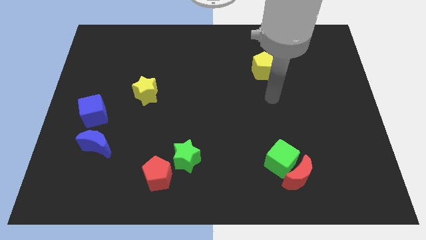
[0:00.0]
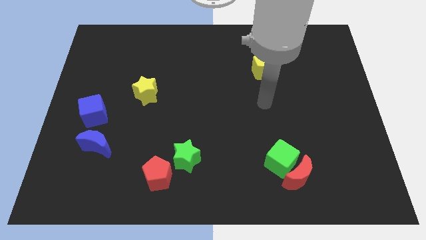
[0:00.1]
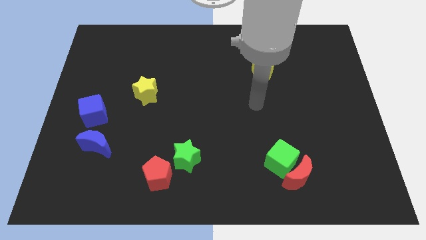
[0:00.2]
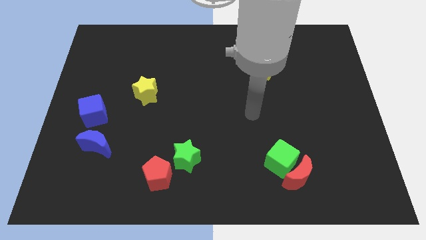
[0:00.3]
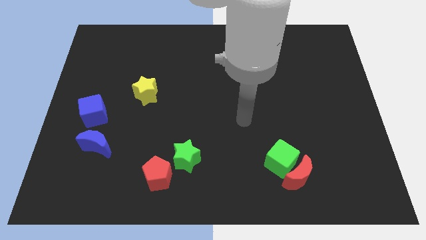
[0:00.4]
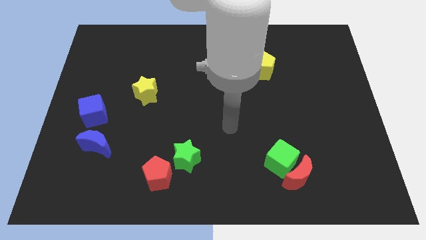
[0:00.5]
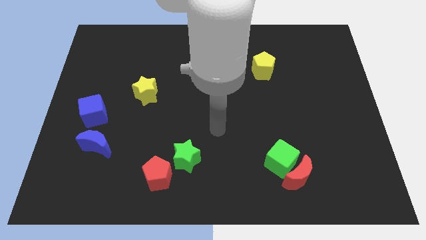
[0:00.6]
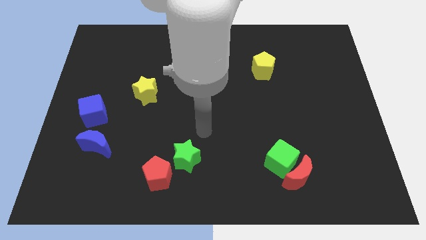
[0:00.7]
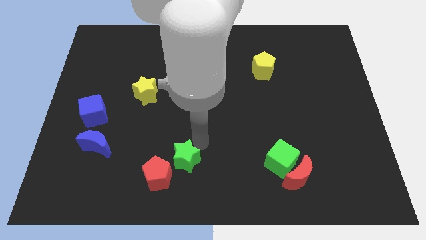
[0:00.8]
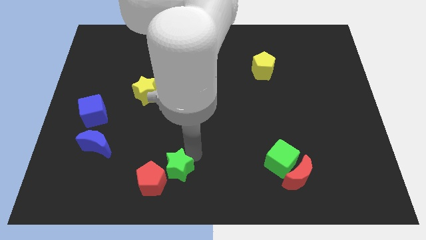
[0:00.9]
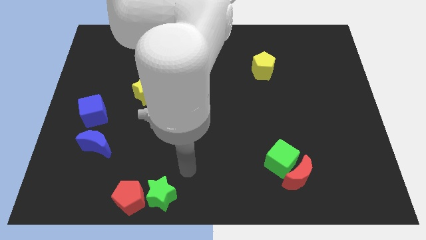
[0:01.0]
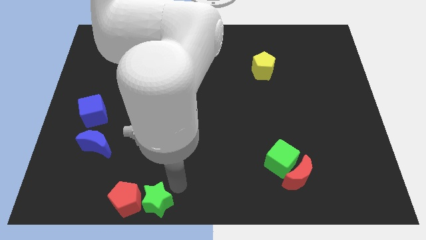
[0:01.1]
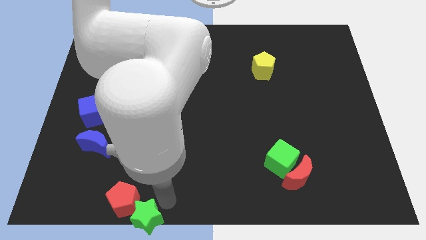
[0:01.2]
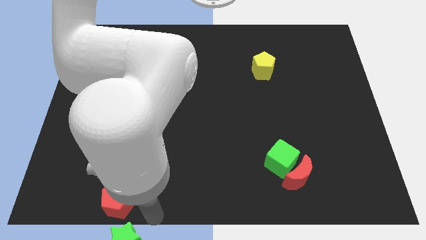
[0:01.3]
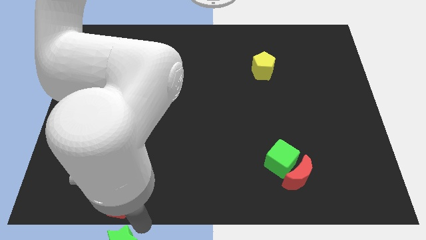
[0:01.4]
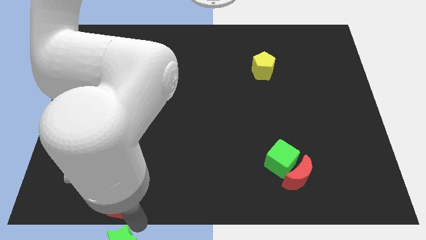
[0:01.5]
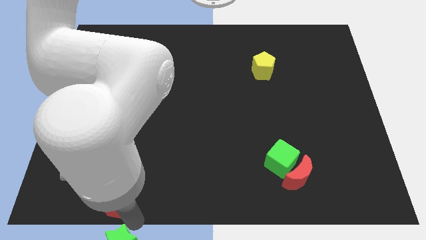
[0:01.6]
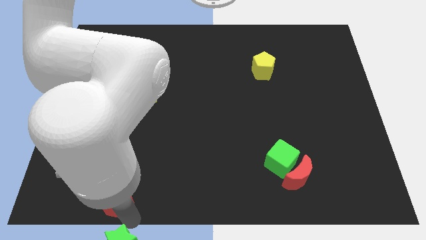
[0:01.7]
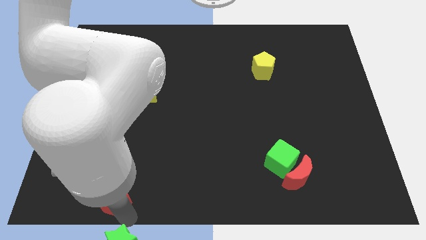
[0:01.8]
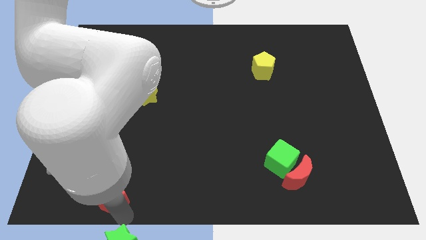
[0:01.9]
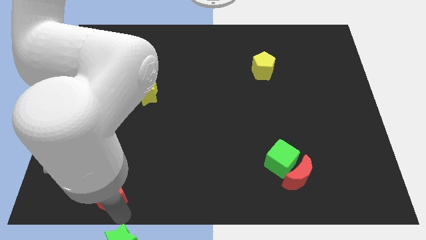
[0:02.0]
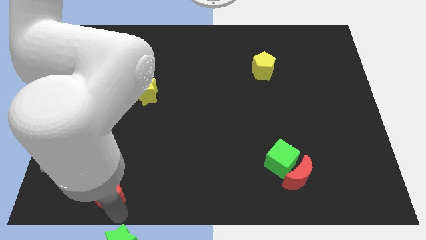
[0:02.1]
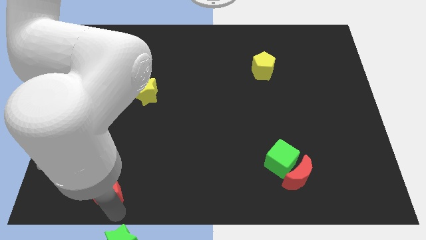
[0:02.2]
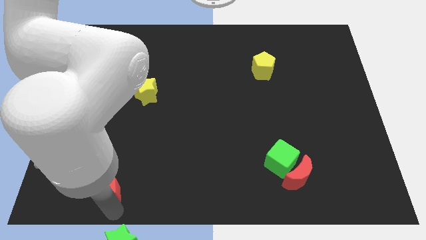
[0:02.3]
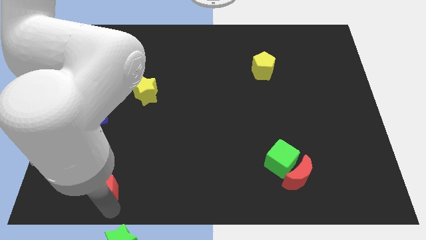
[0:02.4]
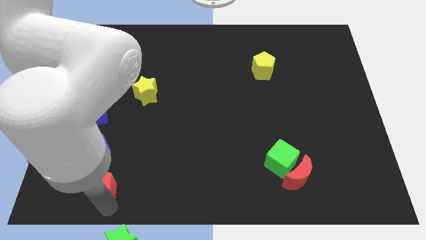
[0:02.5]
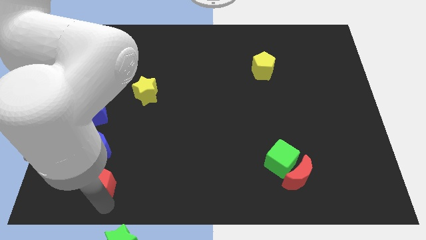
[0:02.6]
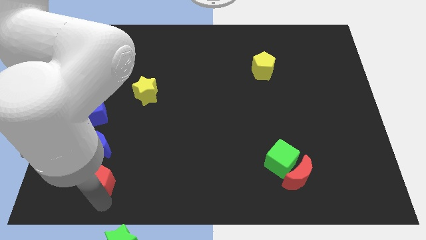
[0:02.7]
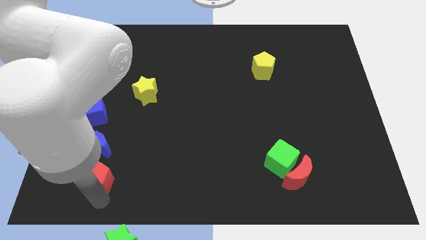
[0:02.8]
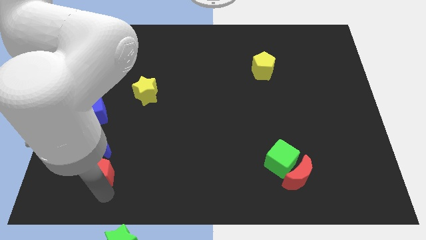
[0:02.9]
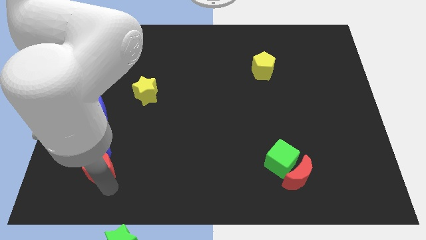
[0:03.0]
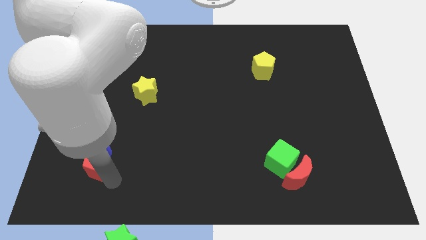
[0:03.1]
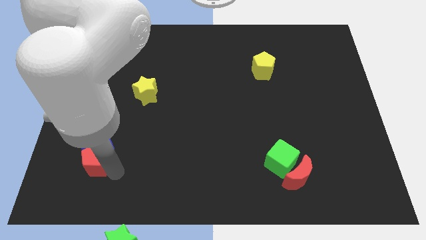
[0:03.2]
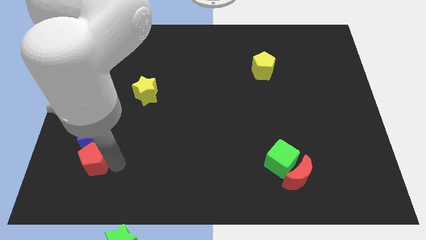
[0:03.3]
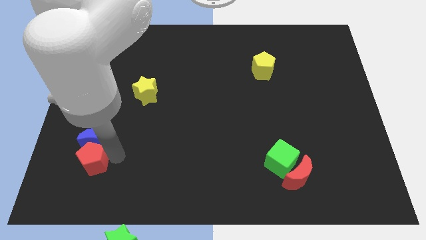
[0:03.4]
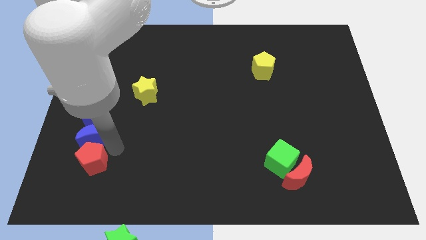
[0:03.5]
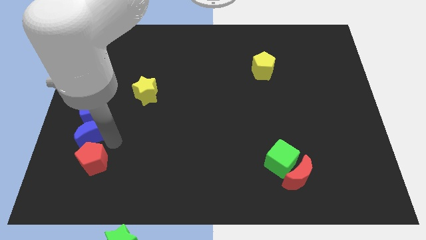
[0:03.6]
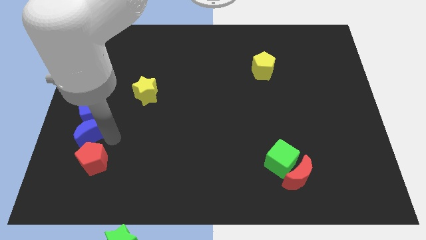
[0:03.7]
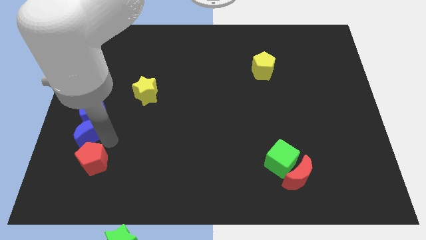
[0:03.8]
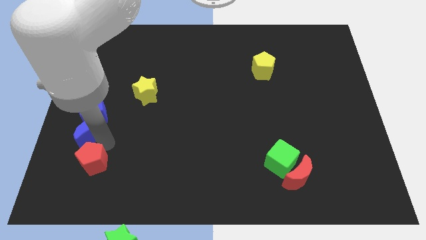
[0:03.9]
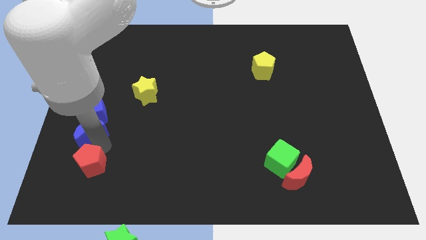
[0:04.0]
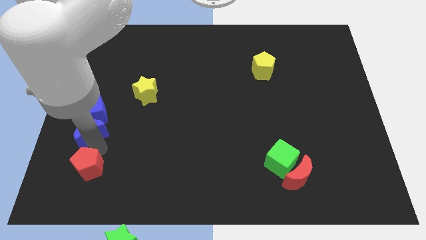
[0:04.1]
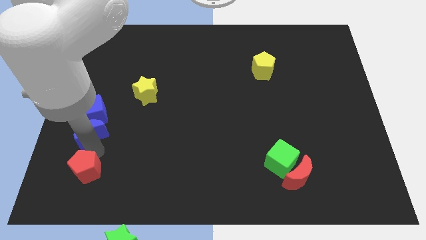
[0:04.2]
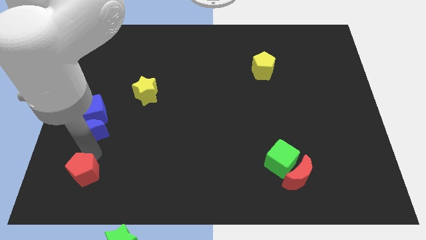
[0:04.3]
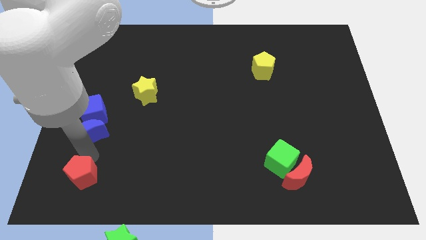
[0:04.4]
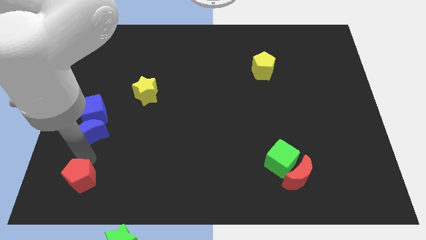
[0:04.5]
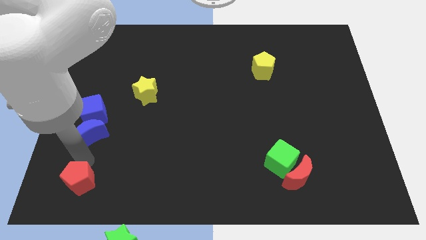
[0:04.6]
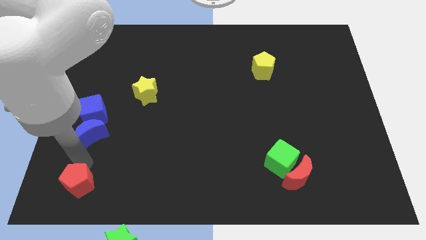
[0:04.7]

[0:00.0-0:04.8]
move the red pentagon to the bottom left

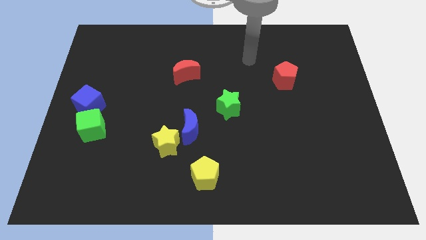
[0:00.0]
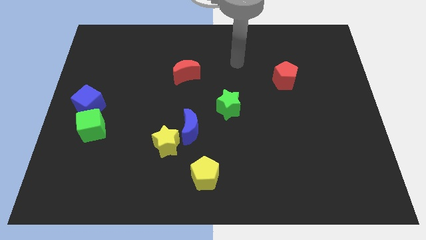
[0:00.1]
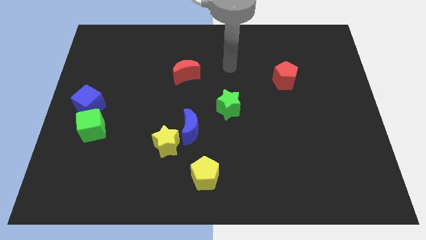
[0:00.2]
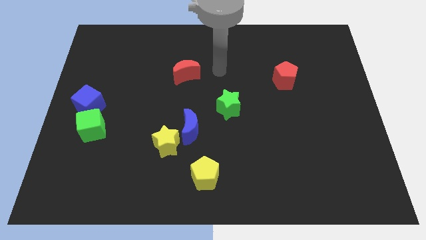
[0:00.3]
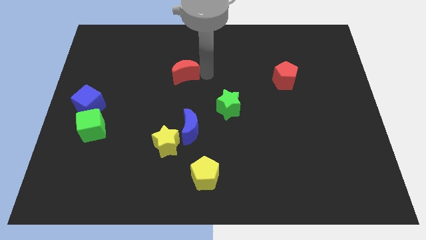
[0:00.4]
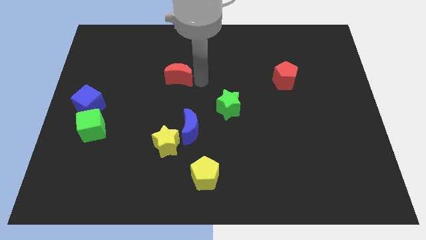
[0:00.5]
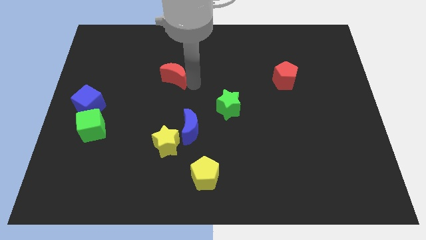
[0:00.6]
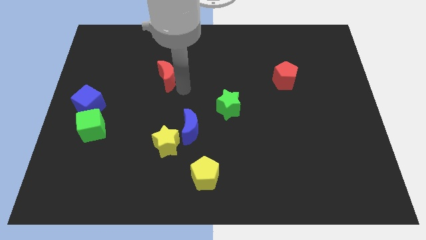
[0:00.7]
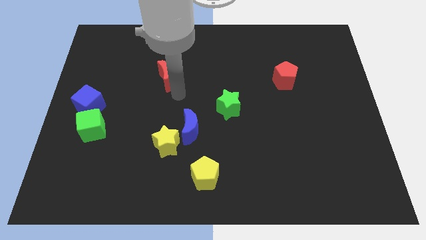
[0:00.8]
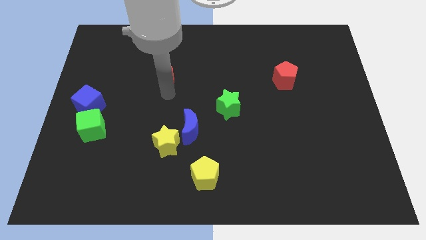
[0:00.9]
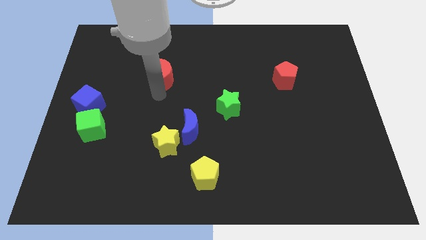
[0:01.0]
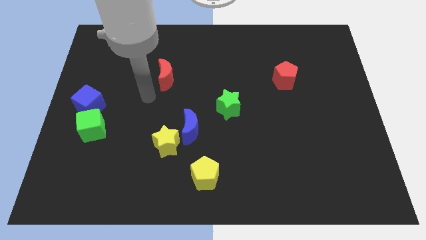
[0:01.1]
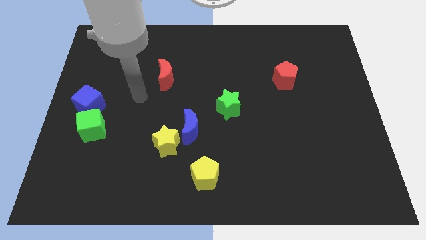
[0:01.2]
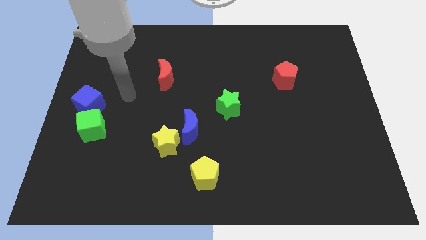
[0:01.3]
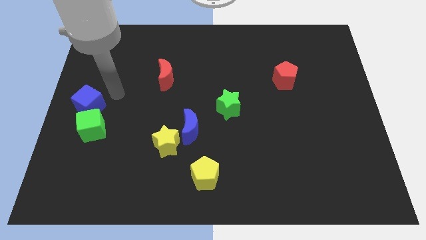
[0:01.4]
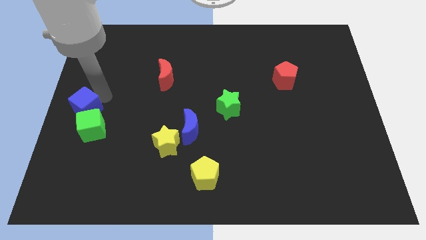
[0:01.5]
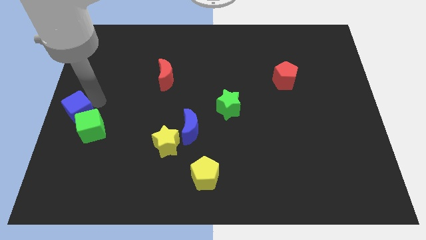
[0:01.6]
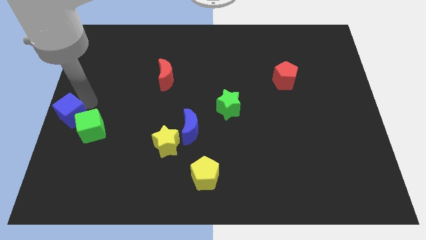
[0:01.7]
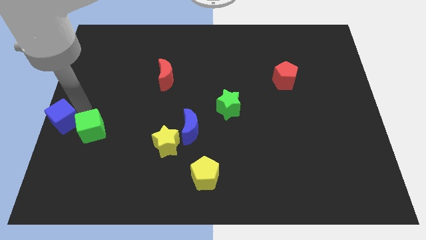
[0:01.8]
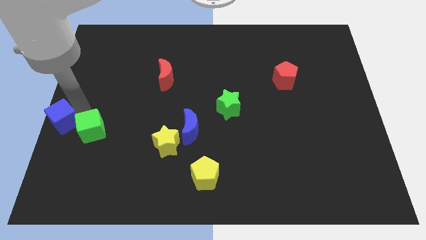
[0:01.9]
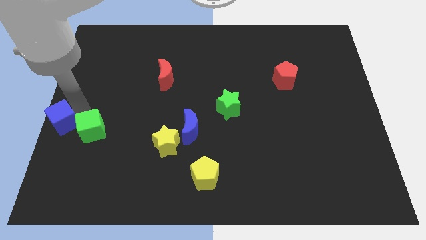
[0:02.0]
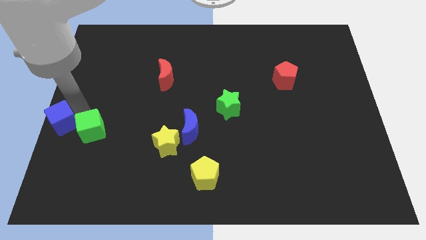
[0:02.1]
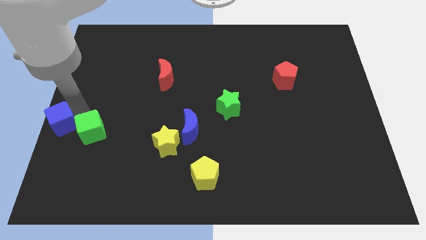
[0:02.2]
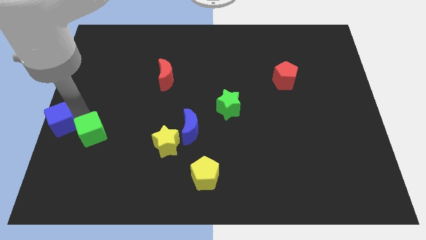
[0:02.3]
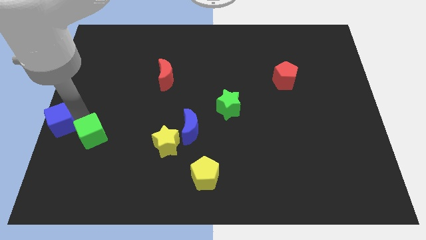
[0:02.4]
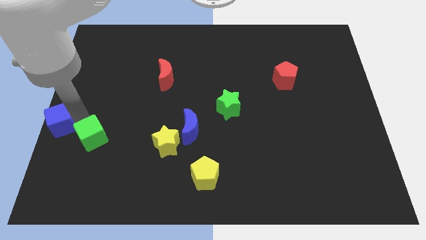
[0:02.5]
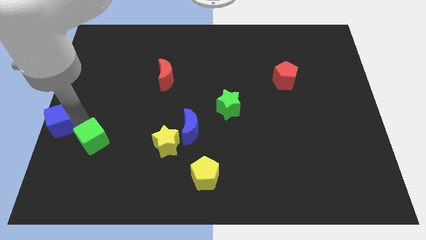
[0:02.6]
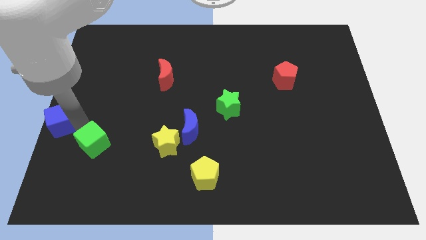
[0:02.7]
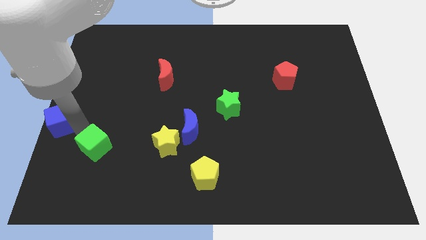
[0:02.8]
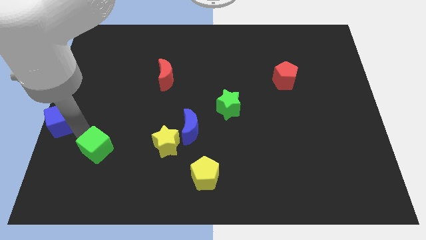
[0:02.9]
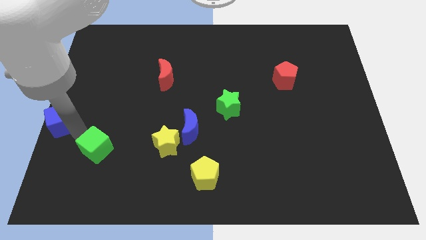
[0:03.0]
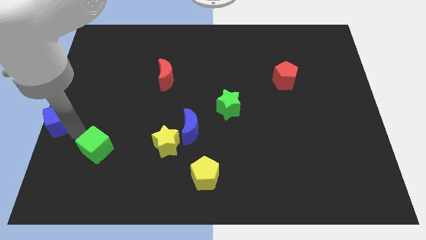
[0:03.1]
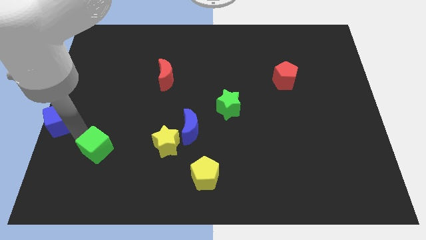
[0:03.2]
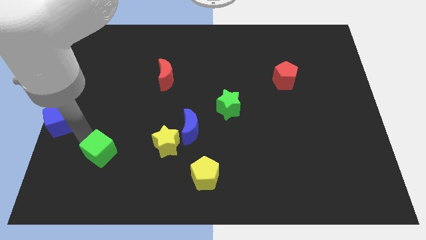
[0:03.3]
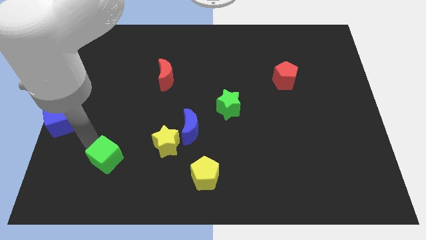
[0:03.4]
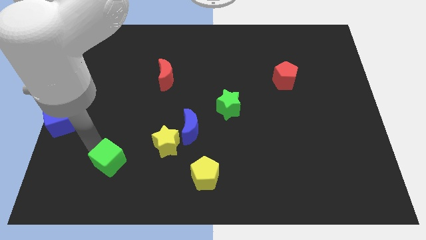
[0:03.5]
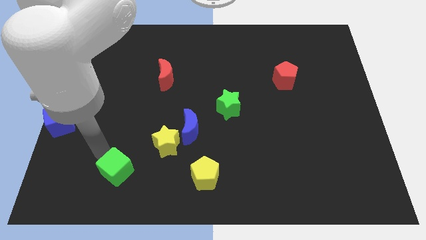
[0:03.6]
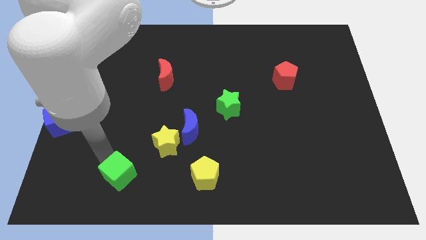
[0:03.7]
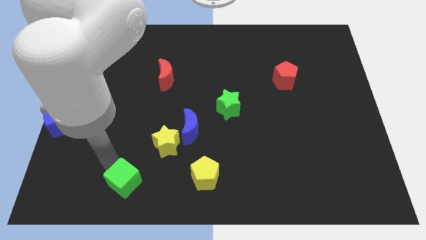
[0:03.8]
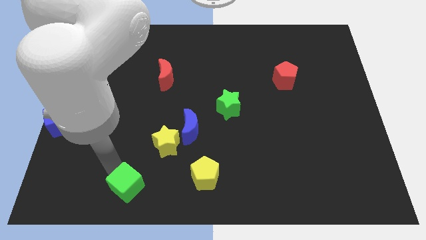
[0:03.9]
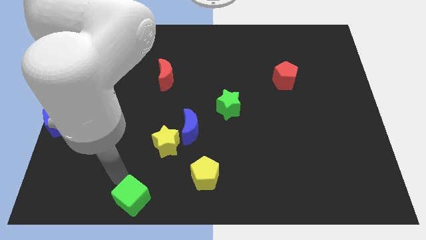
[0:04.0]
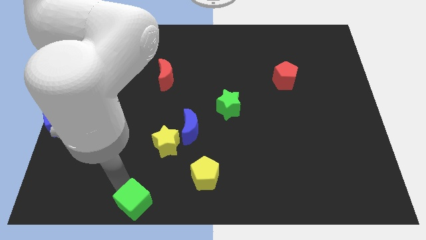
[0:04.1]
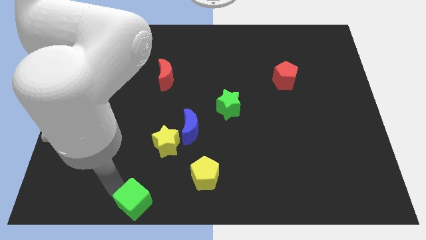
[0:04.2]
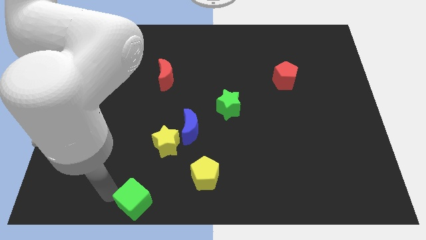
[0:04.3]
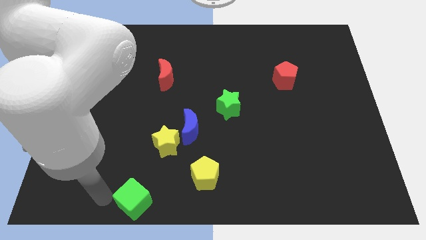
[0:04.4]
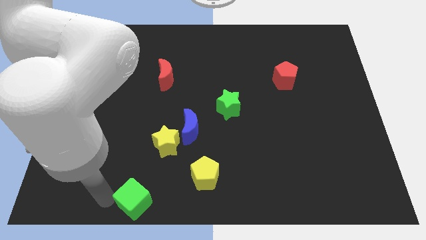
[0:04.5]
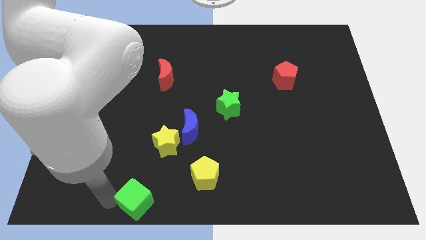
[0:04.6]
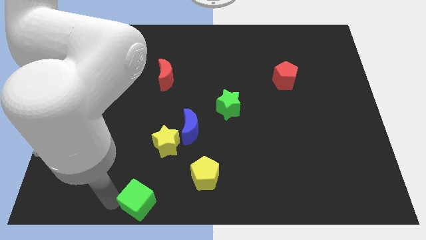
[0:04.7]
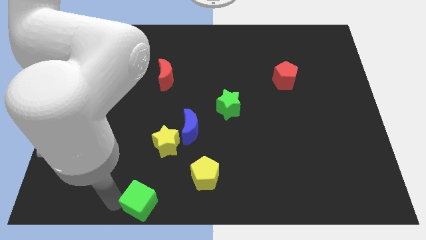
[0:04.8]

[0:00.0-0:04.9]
slide the green cube to the bottom side
